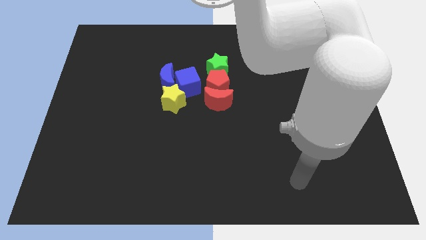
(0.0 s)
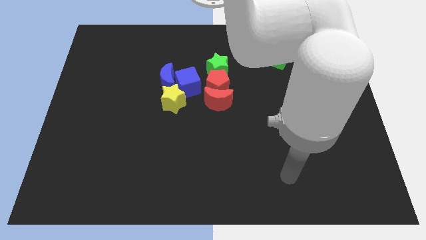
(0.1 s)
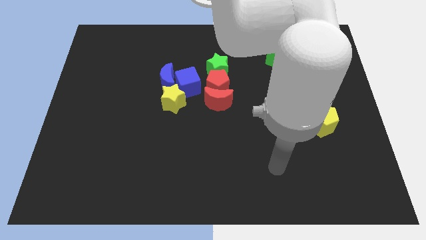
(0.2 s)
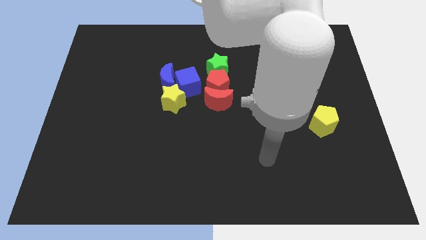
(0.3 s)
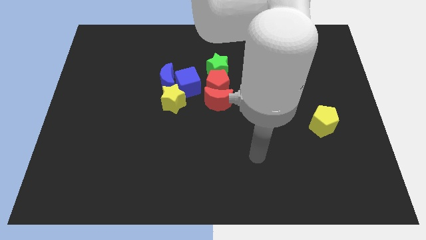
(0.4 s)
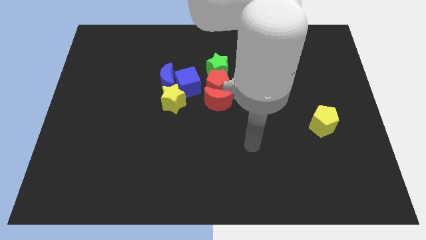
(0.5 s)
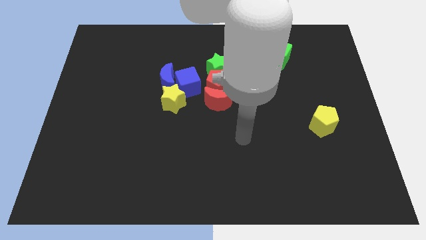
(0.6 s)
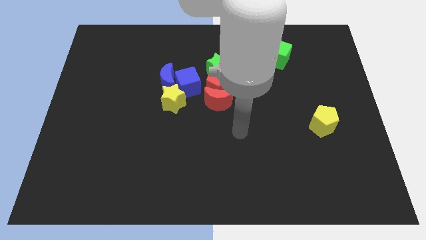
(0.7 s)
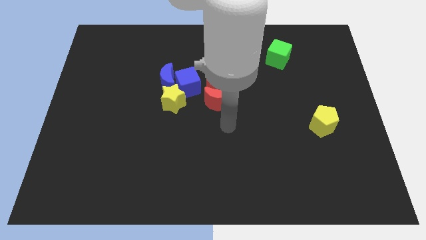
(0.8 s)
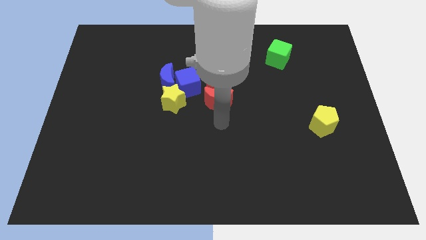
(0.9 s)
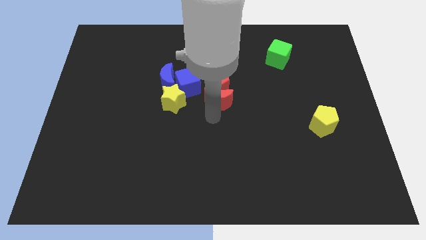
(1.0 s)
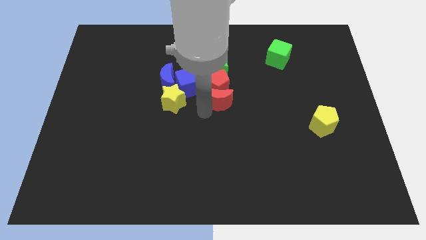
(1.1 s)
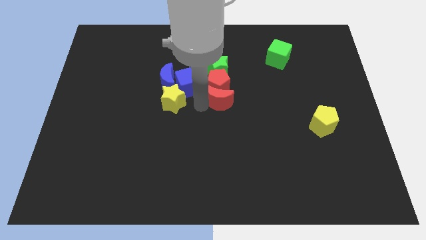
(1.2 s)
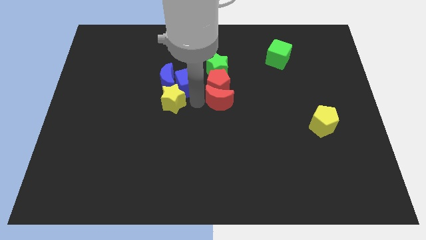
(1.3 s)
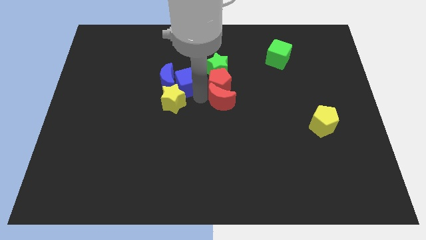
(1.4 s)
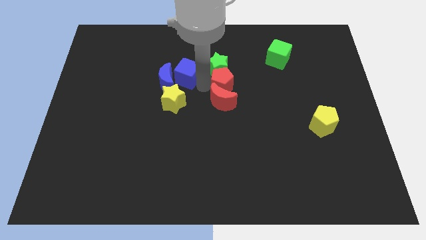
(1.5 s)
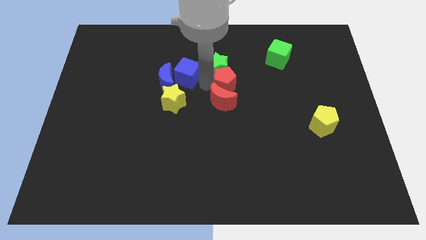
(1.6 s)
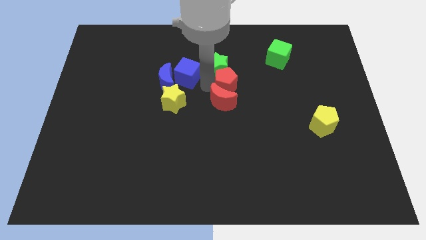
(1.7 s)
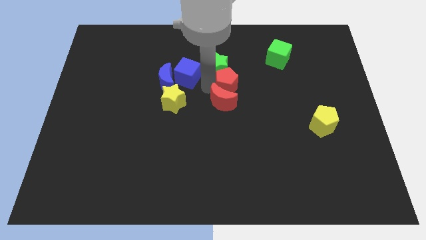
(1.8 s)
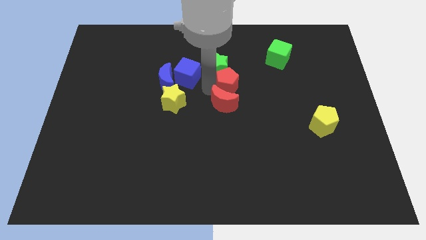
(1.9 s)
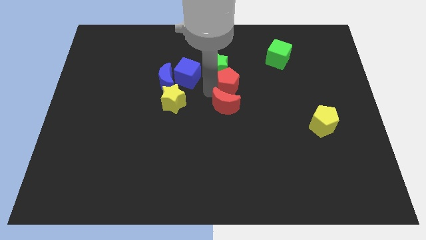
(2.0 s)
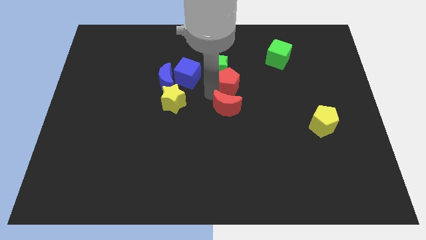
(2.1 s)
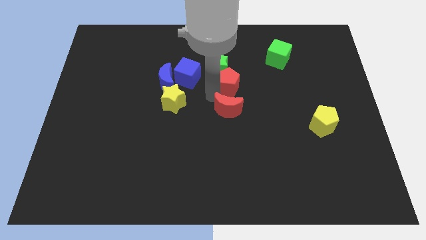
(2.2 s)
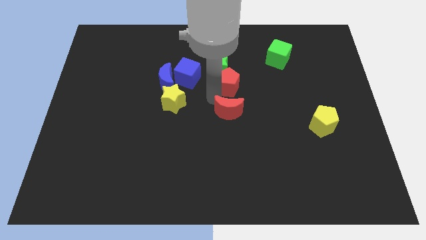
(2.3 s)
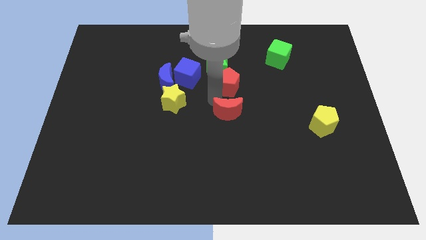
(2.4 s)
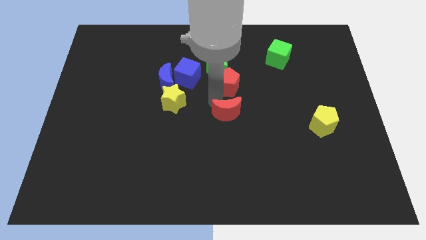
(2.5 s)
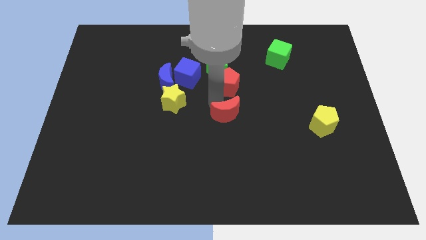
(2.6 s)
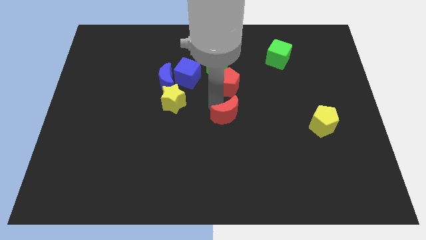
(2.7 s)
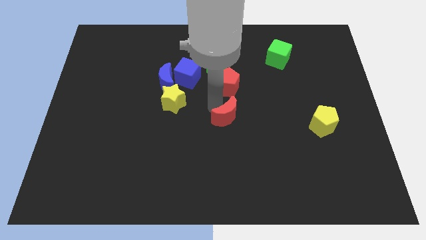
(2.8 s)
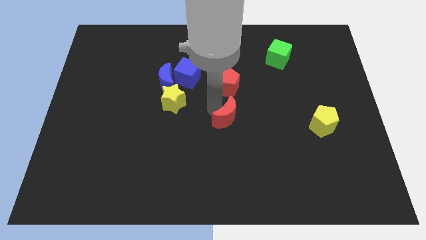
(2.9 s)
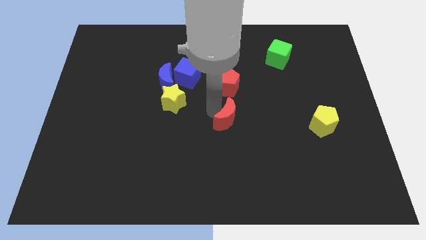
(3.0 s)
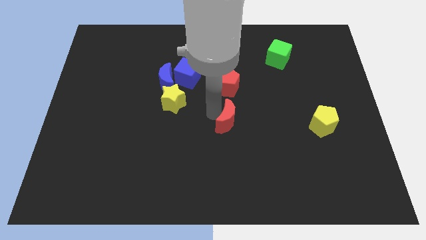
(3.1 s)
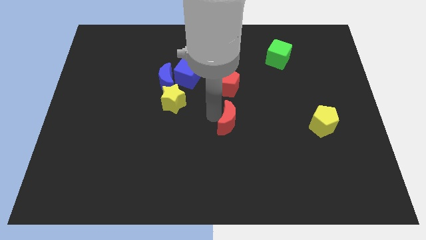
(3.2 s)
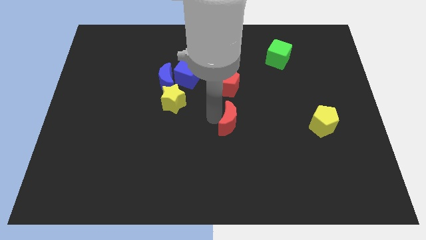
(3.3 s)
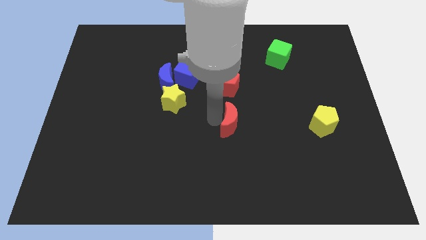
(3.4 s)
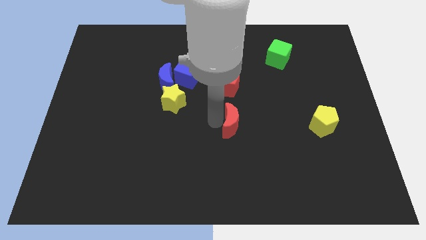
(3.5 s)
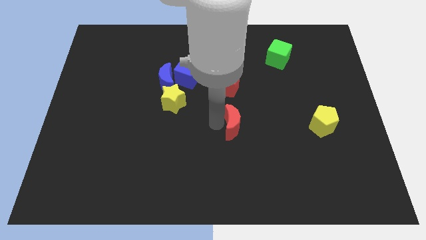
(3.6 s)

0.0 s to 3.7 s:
move the red moon diagonally downwards and to the right a little bit

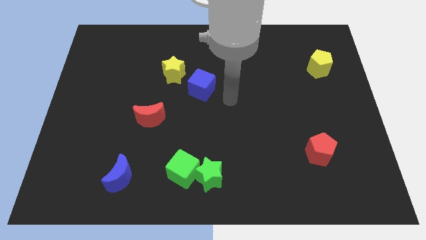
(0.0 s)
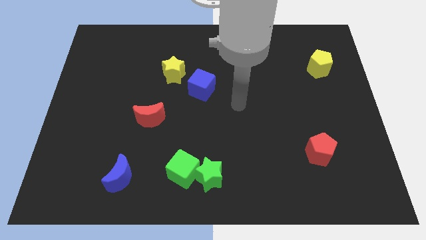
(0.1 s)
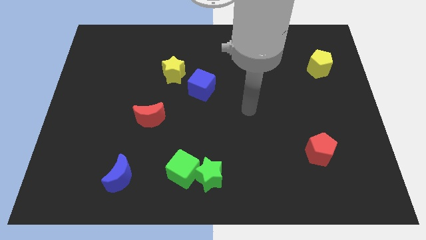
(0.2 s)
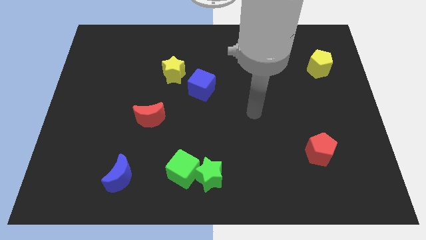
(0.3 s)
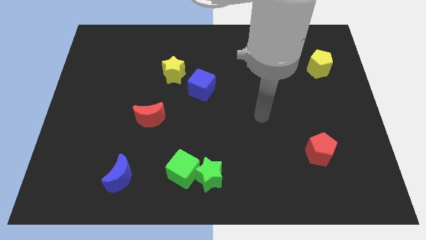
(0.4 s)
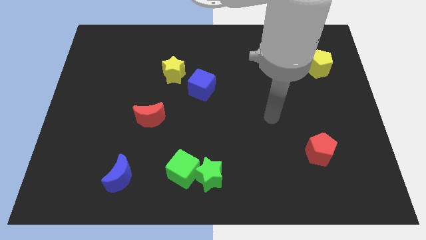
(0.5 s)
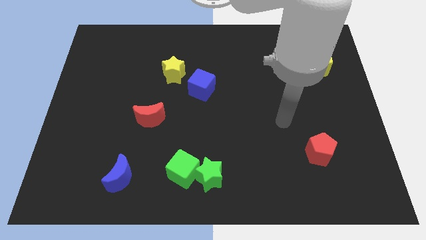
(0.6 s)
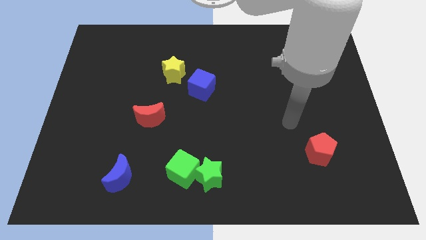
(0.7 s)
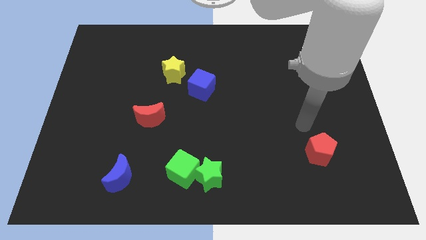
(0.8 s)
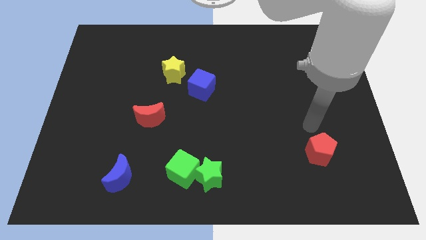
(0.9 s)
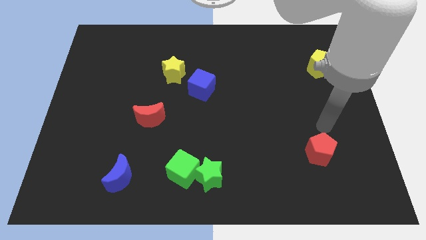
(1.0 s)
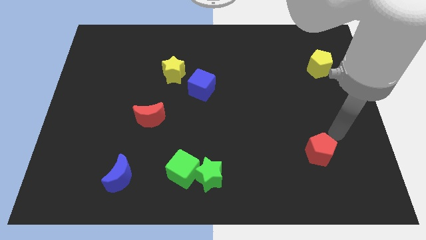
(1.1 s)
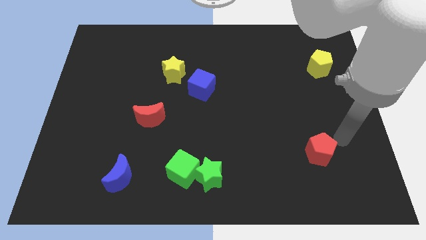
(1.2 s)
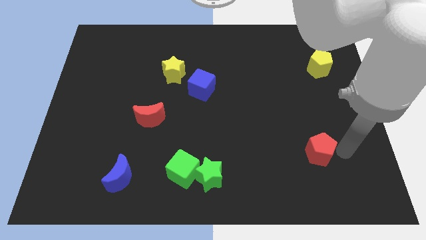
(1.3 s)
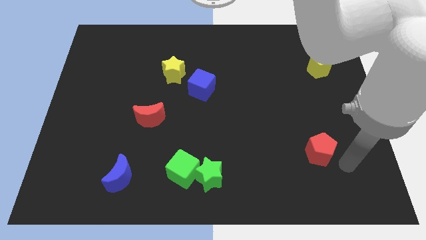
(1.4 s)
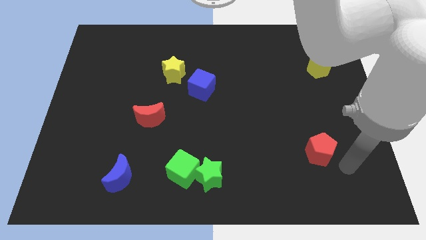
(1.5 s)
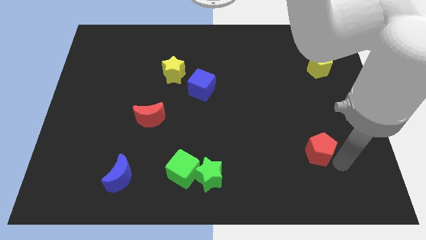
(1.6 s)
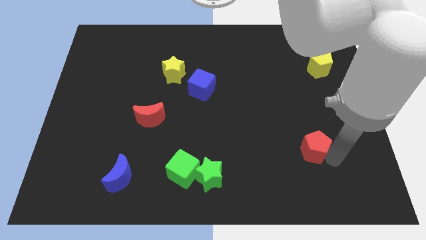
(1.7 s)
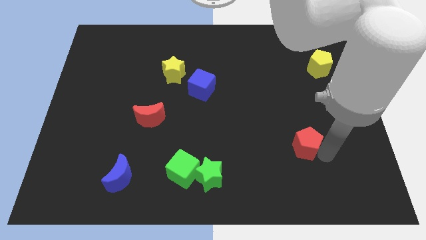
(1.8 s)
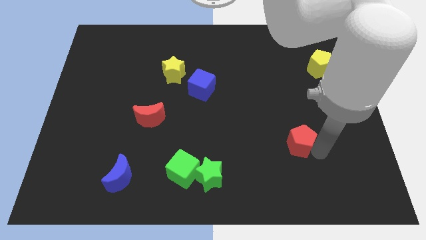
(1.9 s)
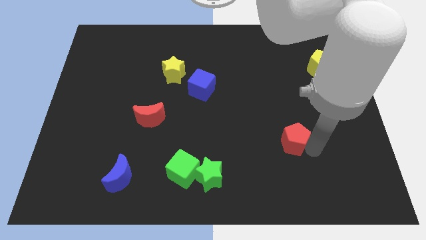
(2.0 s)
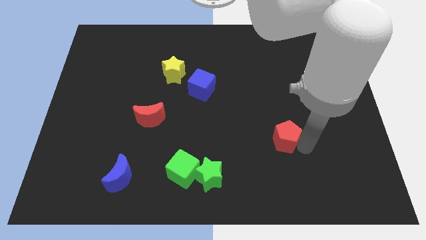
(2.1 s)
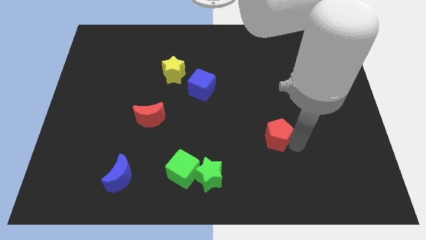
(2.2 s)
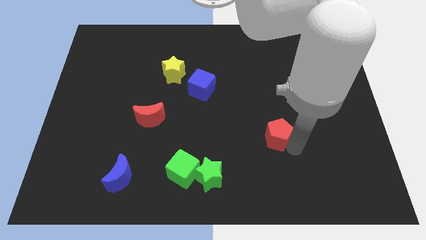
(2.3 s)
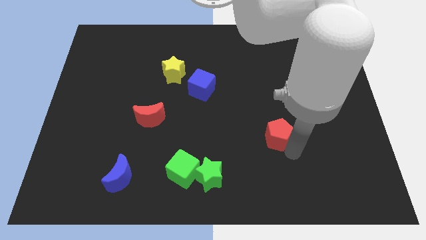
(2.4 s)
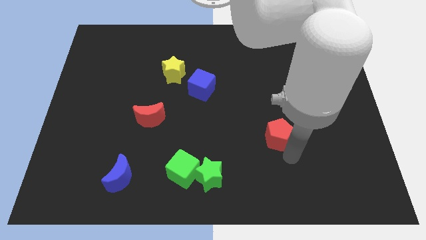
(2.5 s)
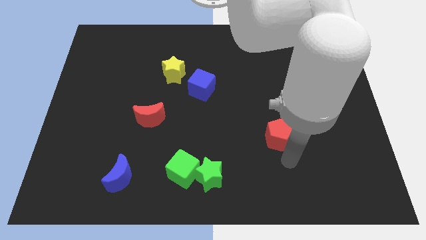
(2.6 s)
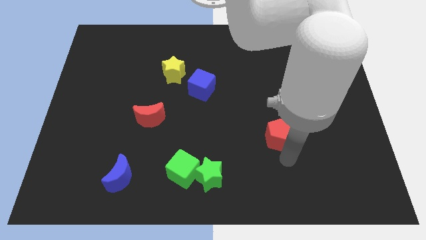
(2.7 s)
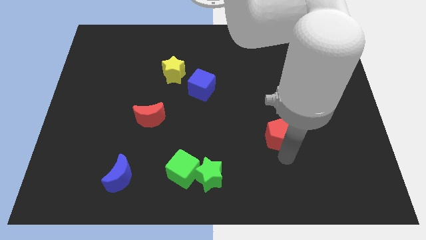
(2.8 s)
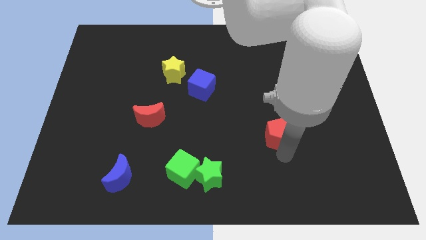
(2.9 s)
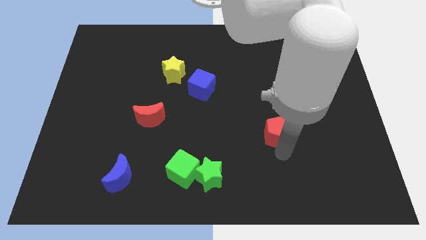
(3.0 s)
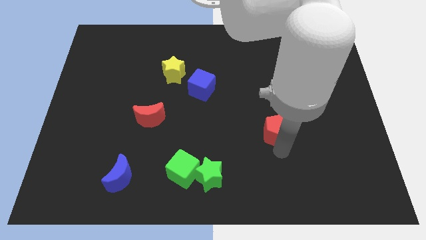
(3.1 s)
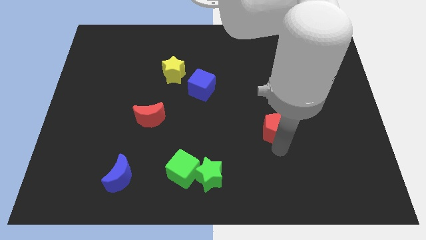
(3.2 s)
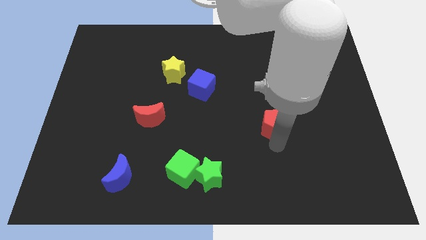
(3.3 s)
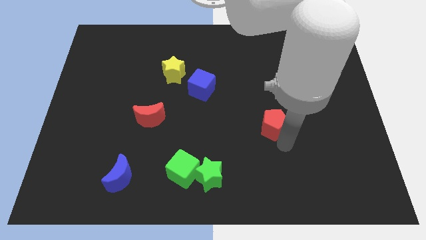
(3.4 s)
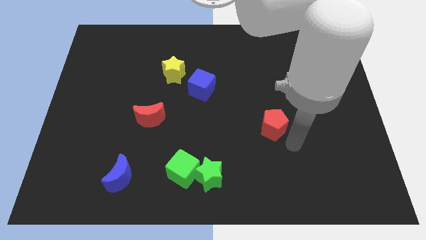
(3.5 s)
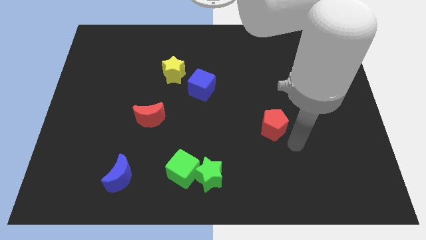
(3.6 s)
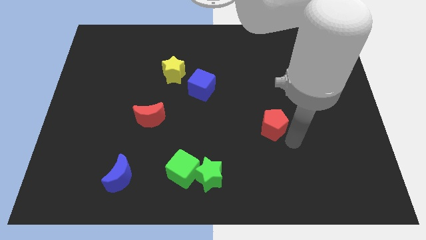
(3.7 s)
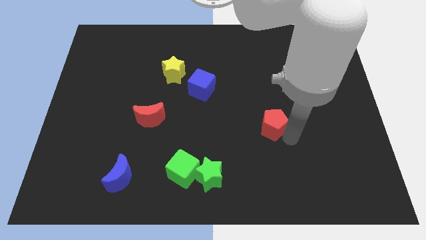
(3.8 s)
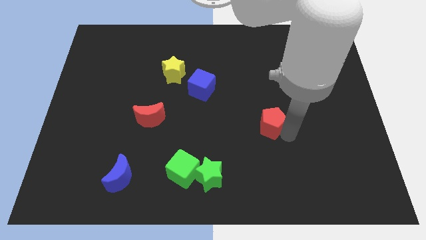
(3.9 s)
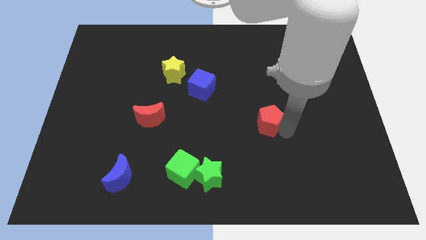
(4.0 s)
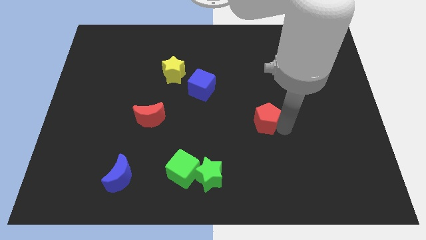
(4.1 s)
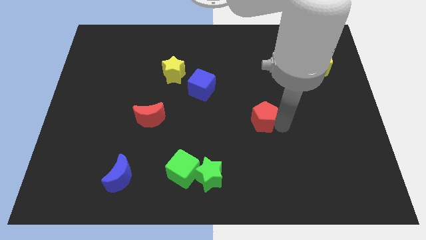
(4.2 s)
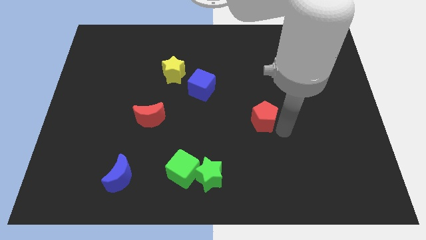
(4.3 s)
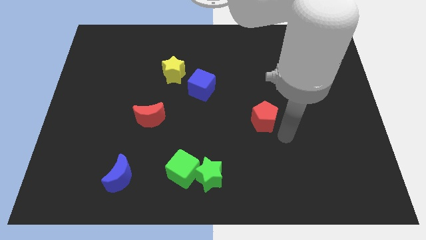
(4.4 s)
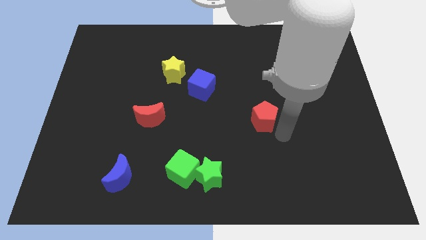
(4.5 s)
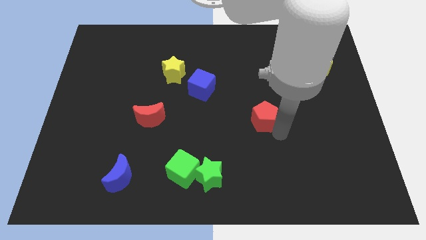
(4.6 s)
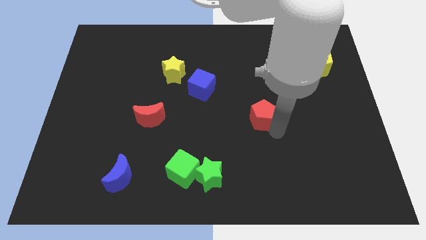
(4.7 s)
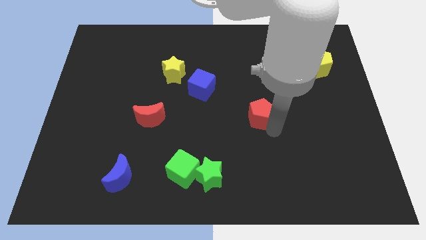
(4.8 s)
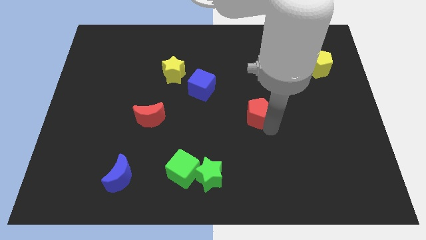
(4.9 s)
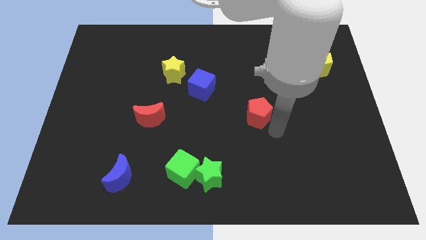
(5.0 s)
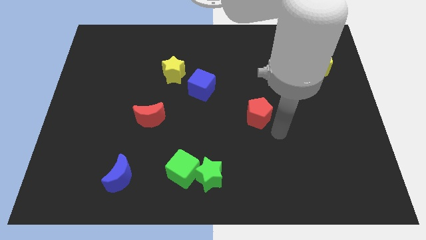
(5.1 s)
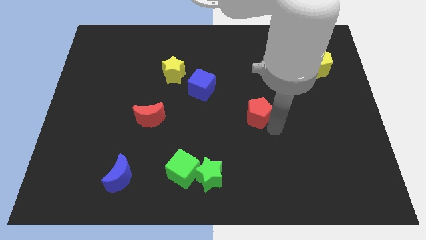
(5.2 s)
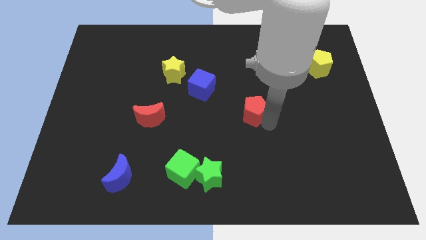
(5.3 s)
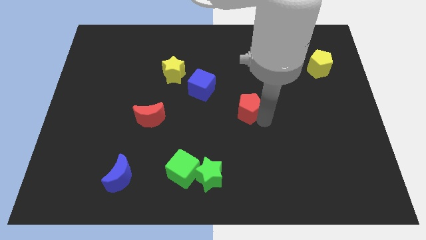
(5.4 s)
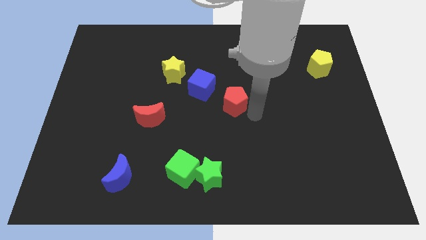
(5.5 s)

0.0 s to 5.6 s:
move the red pentagon up and then to the left
